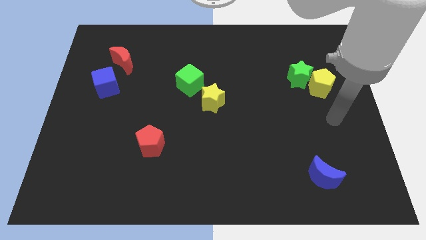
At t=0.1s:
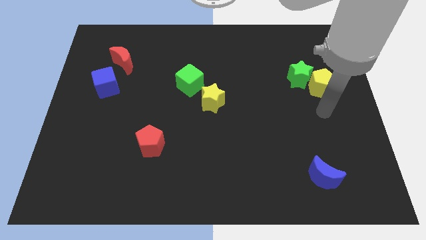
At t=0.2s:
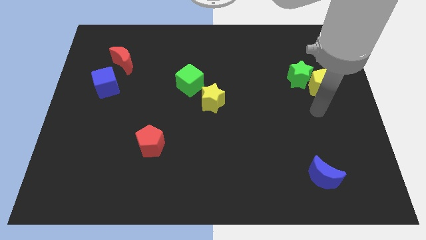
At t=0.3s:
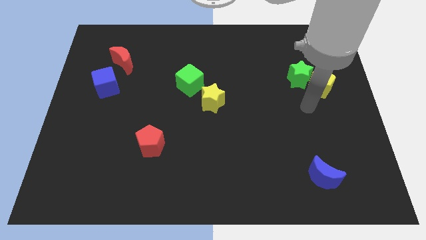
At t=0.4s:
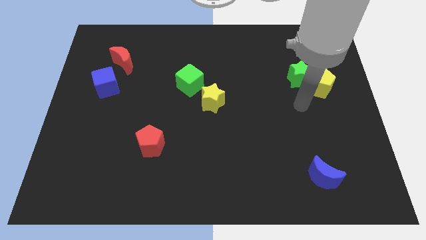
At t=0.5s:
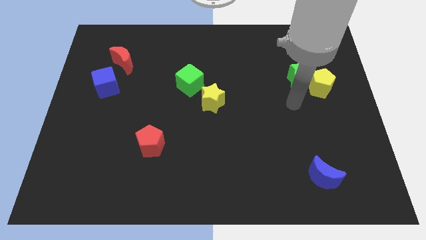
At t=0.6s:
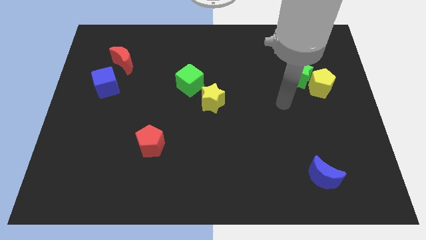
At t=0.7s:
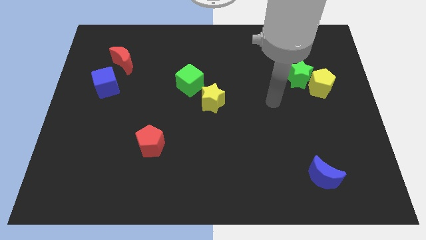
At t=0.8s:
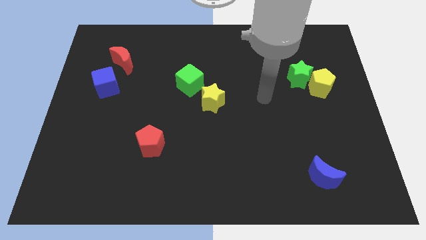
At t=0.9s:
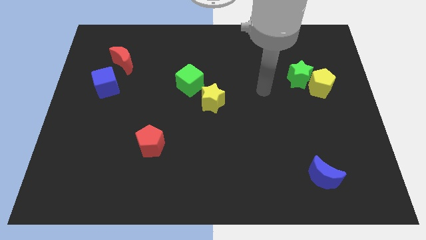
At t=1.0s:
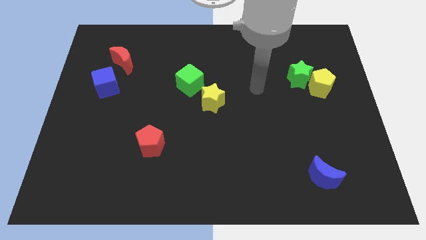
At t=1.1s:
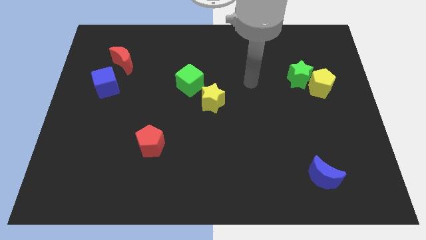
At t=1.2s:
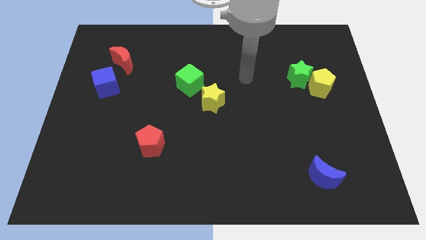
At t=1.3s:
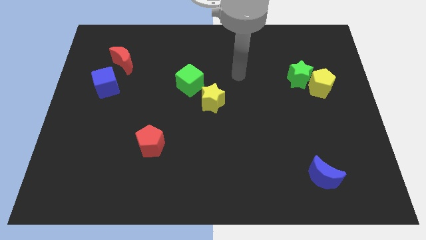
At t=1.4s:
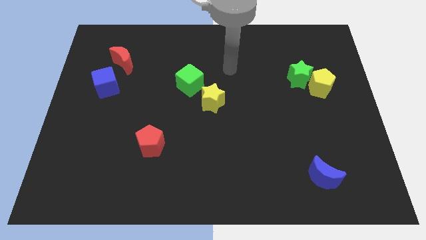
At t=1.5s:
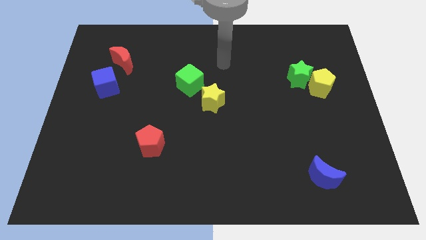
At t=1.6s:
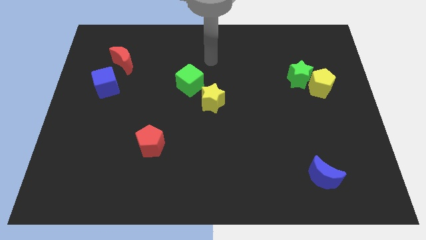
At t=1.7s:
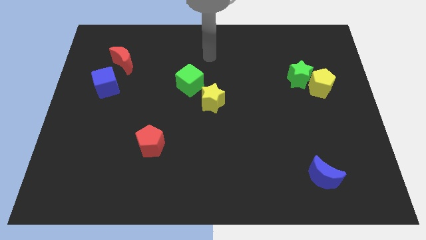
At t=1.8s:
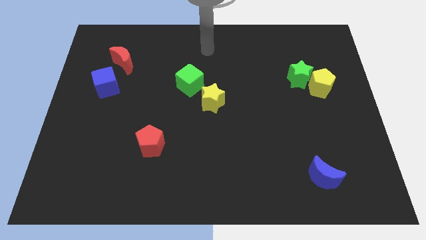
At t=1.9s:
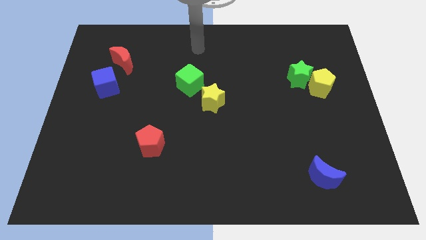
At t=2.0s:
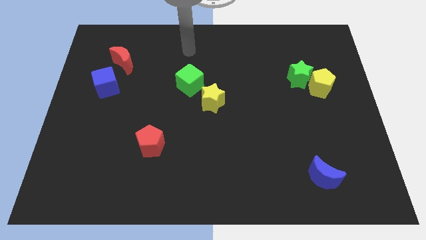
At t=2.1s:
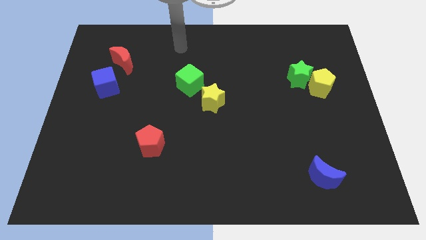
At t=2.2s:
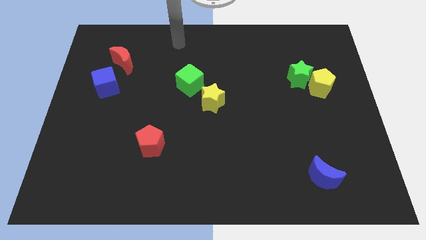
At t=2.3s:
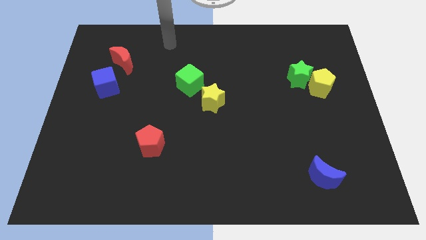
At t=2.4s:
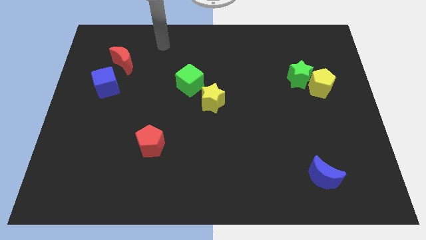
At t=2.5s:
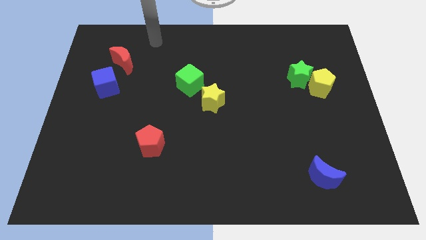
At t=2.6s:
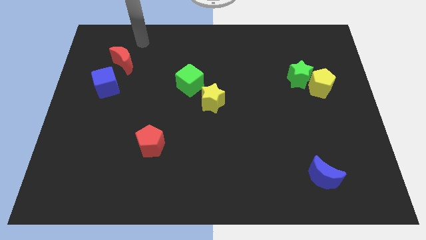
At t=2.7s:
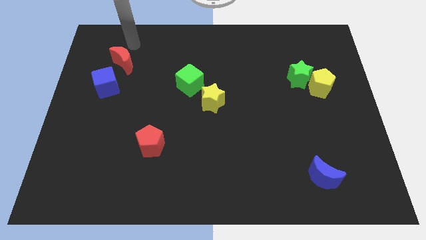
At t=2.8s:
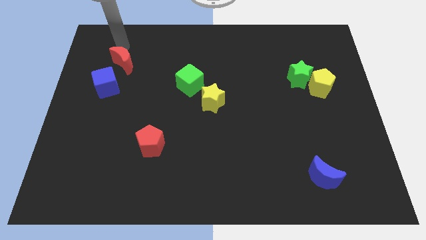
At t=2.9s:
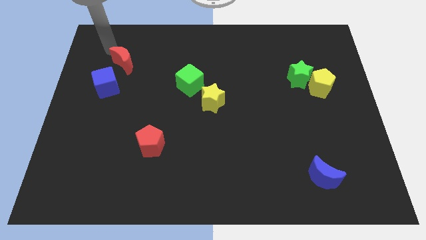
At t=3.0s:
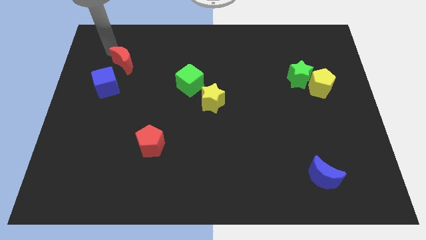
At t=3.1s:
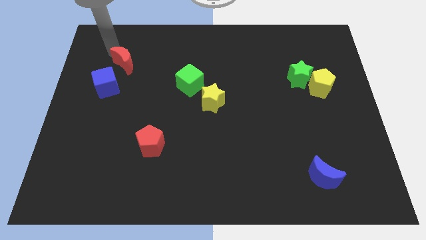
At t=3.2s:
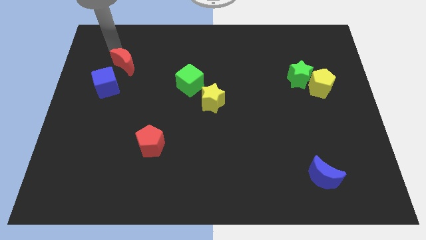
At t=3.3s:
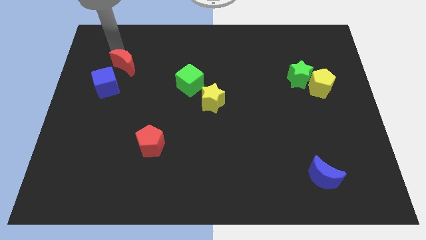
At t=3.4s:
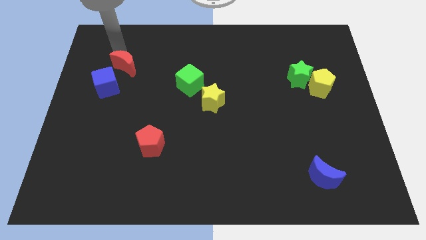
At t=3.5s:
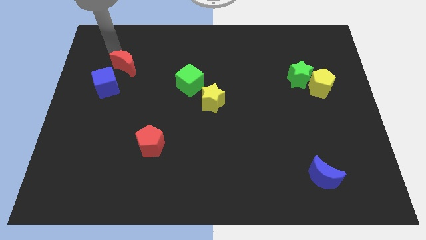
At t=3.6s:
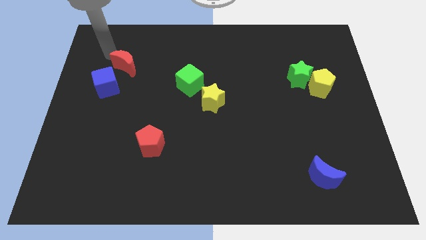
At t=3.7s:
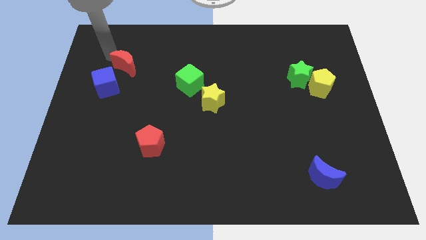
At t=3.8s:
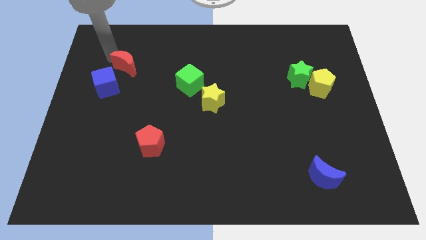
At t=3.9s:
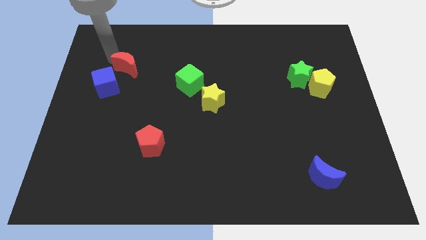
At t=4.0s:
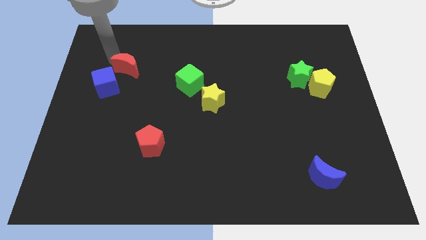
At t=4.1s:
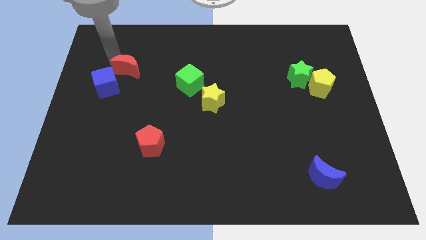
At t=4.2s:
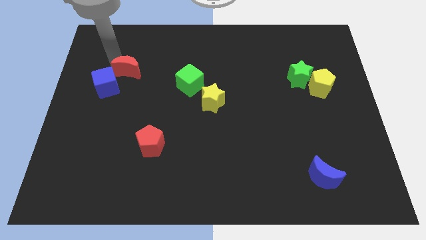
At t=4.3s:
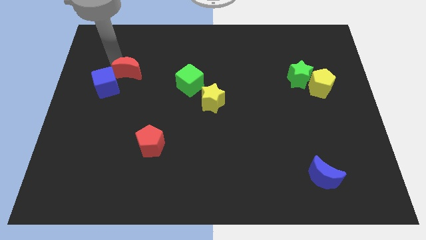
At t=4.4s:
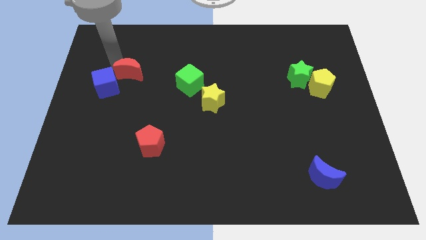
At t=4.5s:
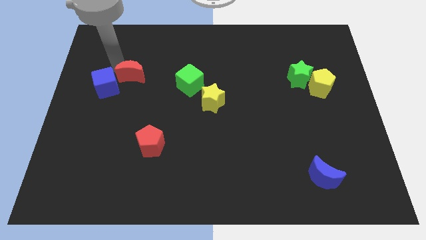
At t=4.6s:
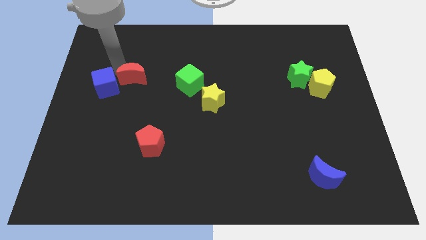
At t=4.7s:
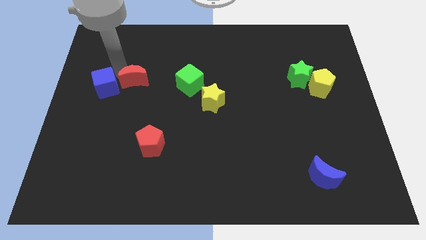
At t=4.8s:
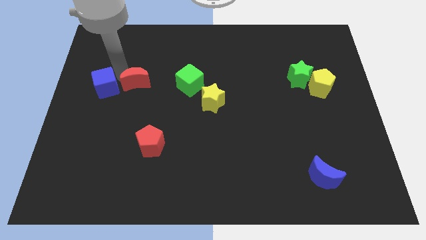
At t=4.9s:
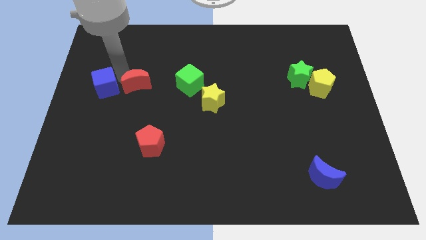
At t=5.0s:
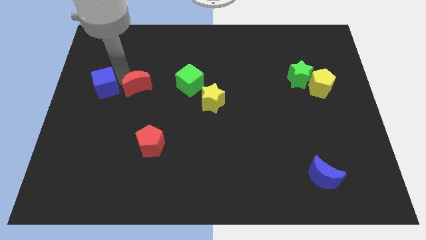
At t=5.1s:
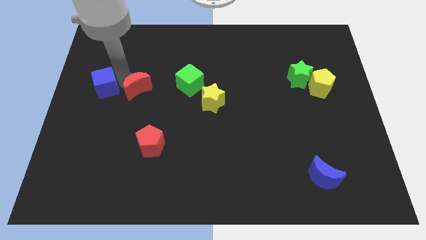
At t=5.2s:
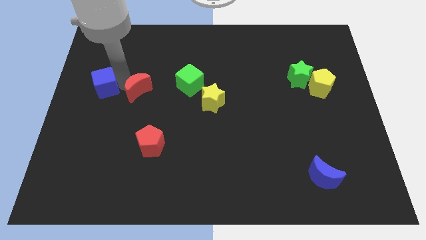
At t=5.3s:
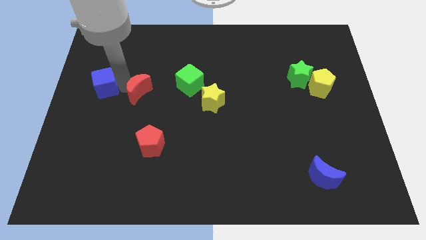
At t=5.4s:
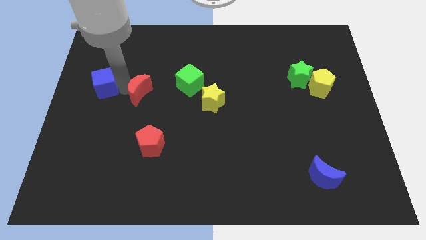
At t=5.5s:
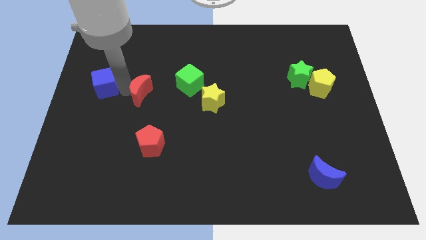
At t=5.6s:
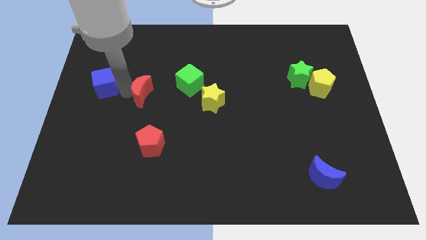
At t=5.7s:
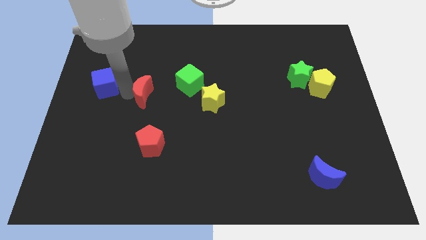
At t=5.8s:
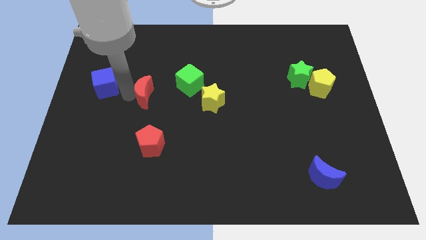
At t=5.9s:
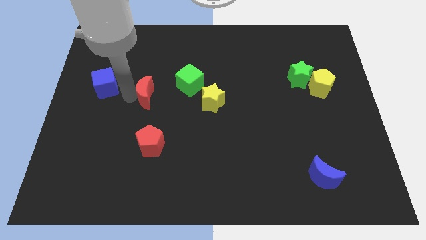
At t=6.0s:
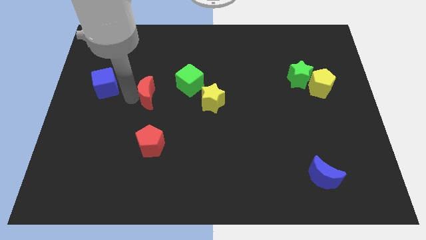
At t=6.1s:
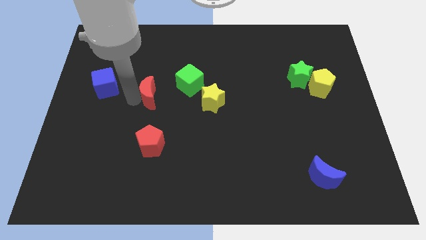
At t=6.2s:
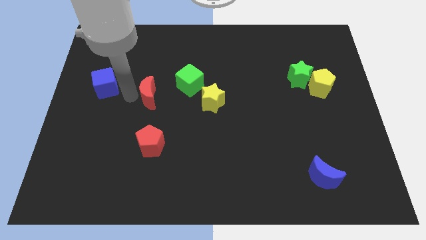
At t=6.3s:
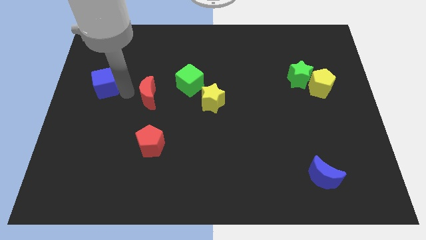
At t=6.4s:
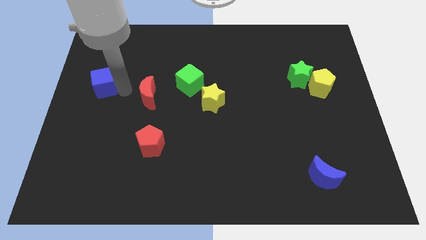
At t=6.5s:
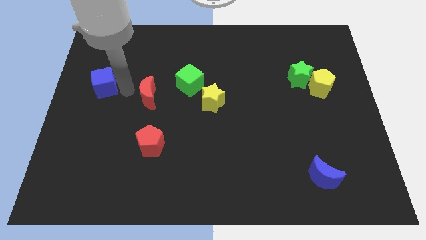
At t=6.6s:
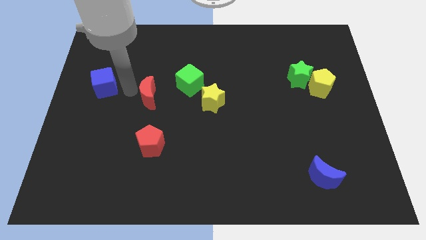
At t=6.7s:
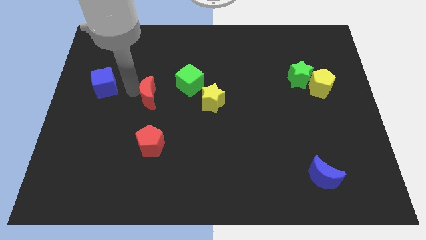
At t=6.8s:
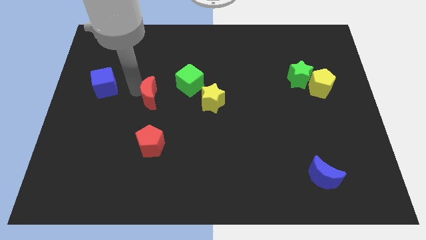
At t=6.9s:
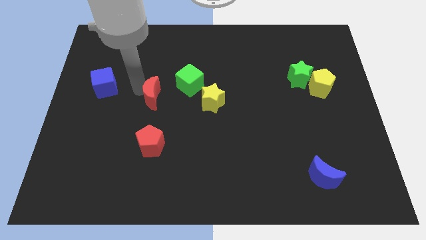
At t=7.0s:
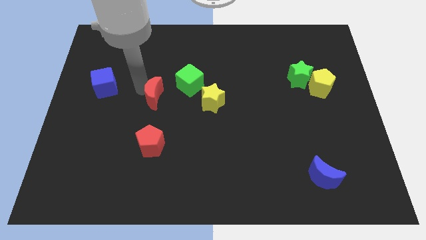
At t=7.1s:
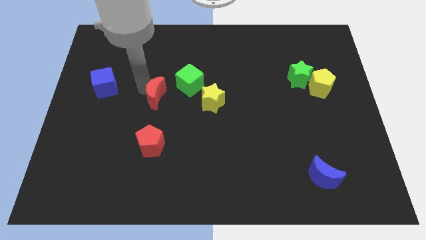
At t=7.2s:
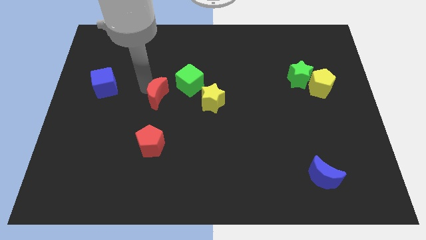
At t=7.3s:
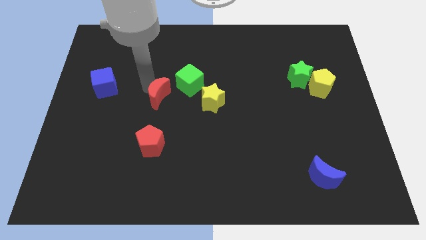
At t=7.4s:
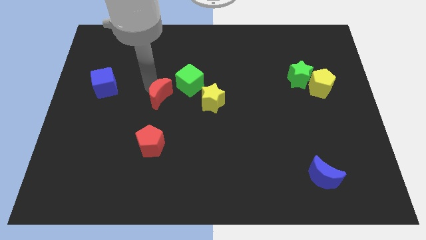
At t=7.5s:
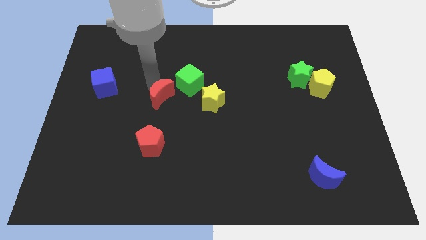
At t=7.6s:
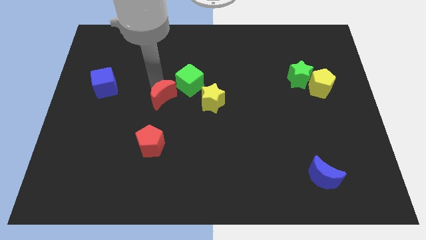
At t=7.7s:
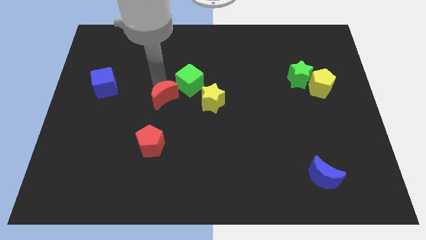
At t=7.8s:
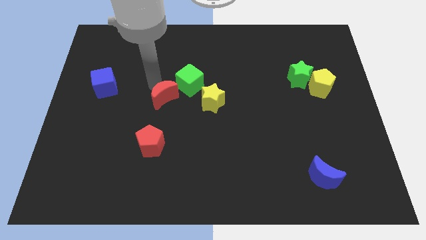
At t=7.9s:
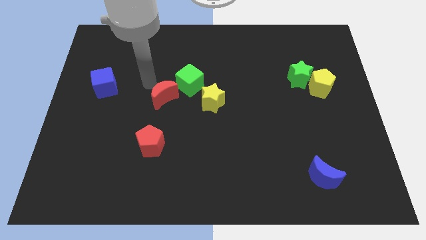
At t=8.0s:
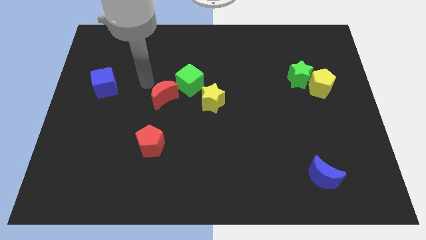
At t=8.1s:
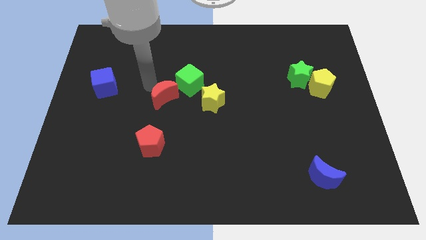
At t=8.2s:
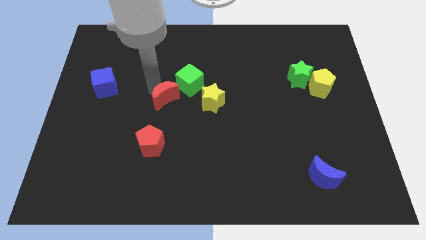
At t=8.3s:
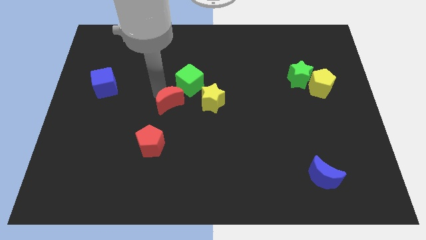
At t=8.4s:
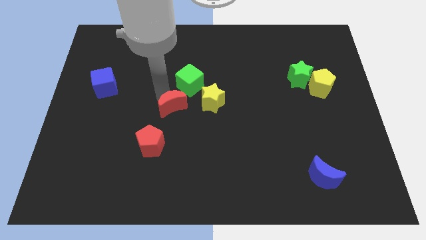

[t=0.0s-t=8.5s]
push the red moon down and then to the right

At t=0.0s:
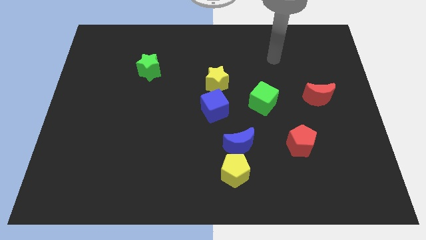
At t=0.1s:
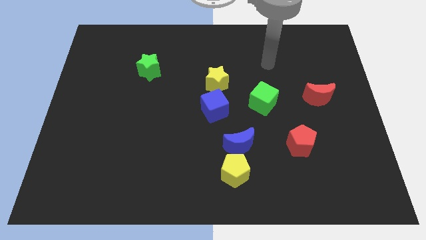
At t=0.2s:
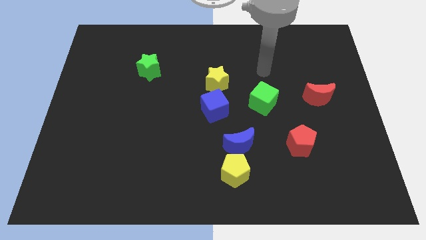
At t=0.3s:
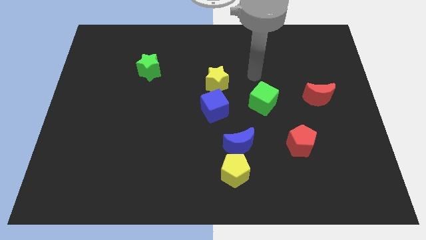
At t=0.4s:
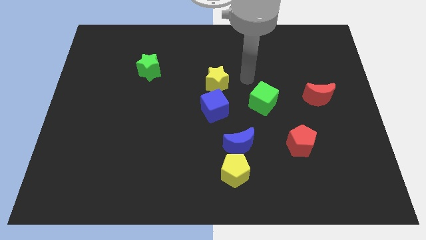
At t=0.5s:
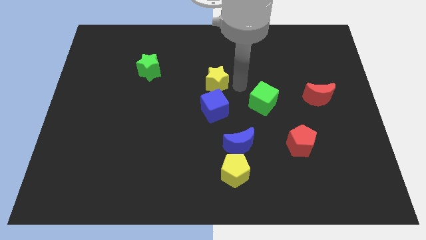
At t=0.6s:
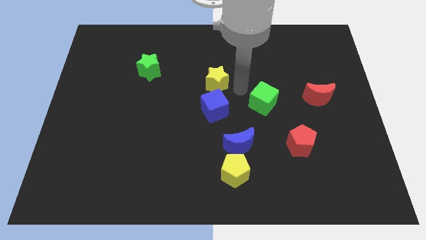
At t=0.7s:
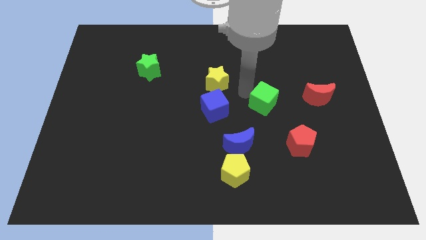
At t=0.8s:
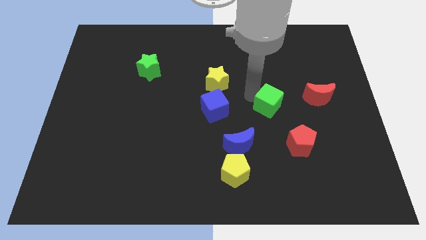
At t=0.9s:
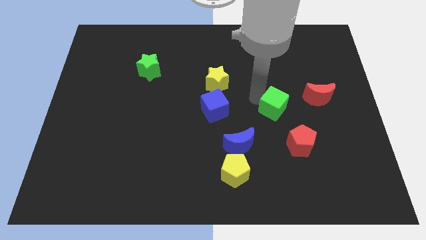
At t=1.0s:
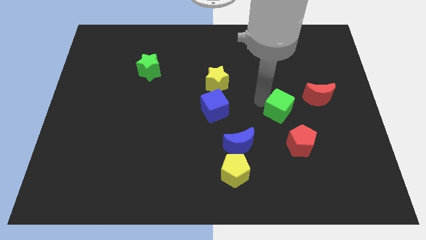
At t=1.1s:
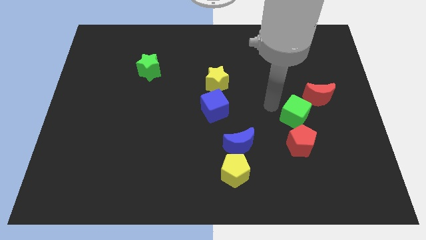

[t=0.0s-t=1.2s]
slightly move the green cube diagonally down and to the right
